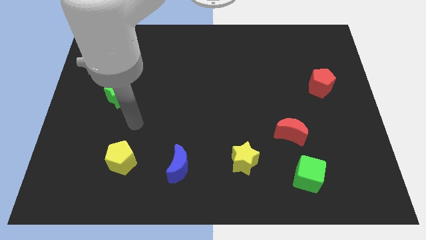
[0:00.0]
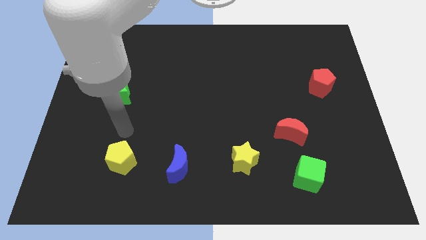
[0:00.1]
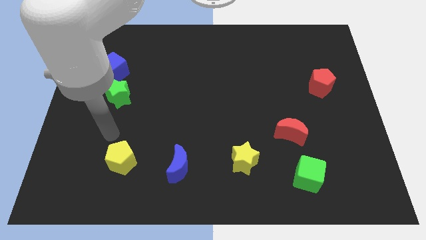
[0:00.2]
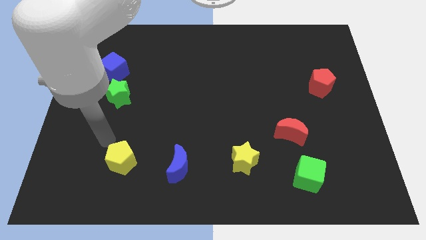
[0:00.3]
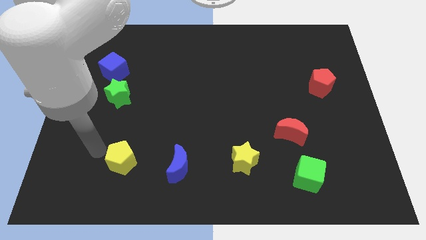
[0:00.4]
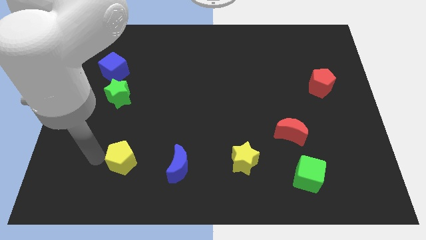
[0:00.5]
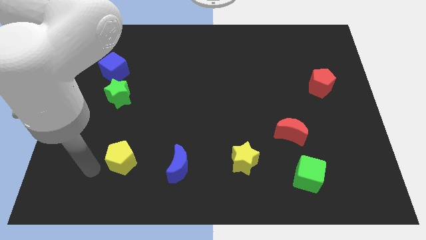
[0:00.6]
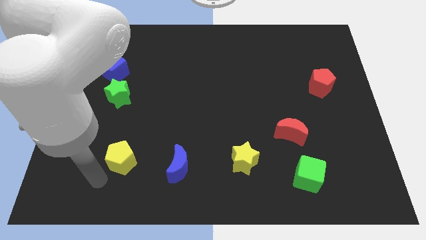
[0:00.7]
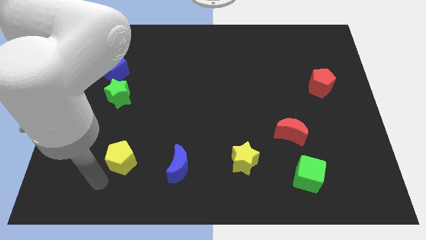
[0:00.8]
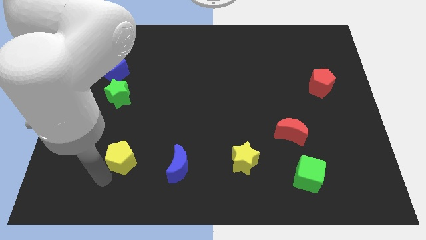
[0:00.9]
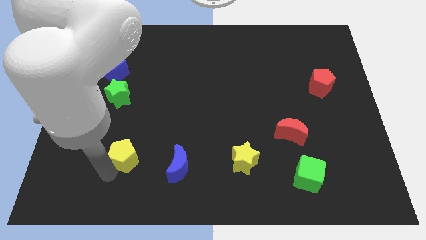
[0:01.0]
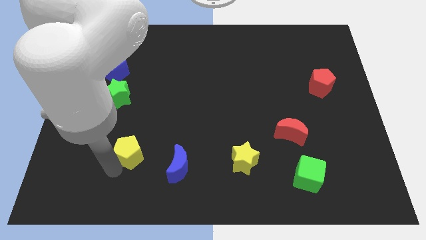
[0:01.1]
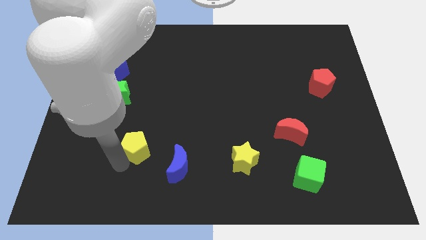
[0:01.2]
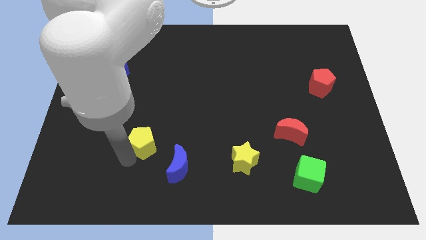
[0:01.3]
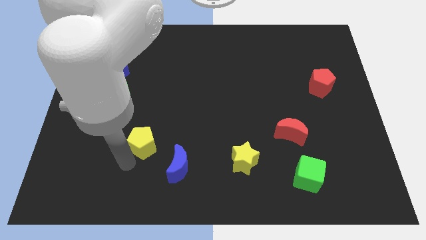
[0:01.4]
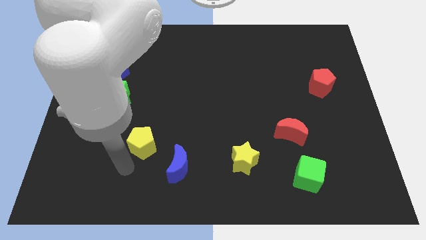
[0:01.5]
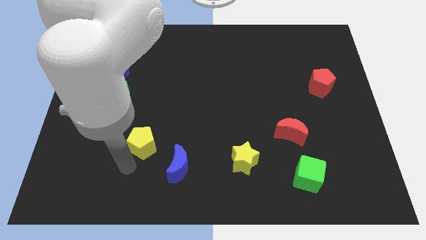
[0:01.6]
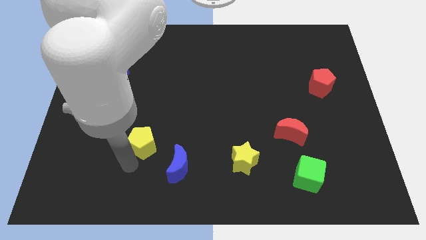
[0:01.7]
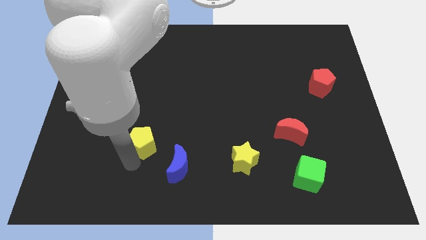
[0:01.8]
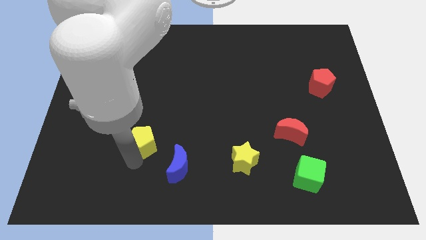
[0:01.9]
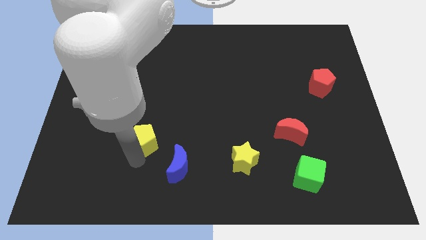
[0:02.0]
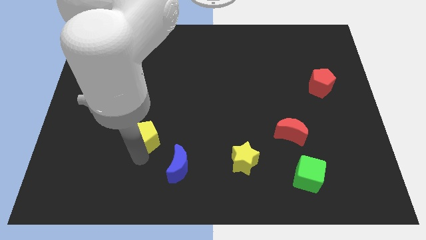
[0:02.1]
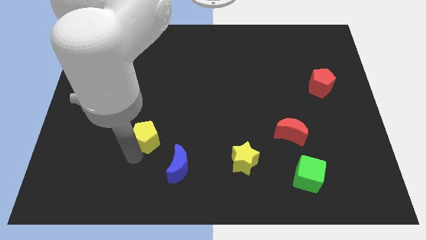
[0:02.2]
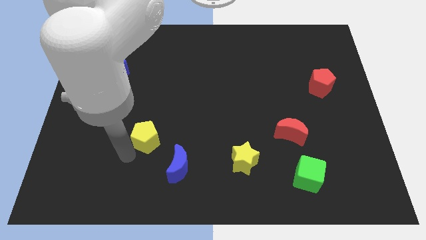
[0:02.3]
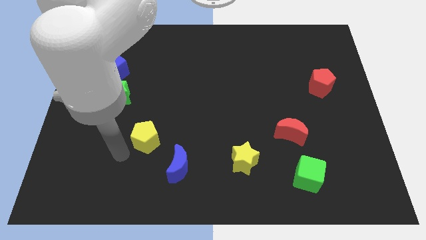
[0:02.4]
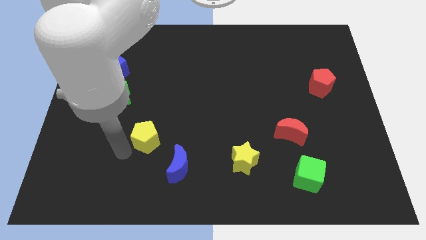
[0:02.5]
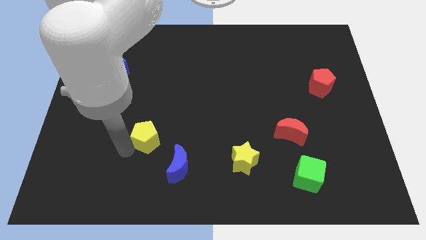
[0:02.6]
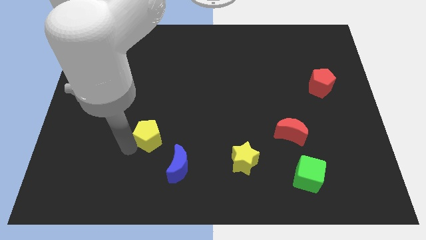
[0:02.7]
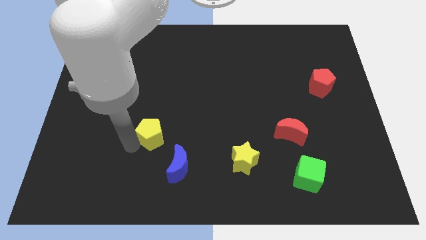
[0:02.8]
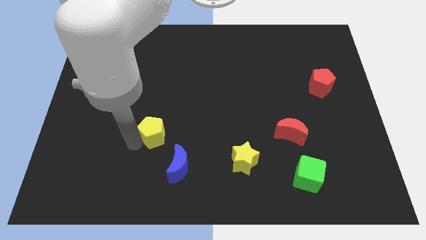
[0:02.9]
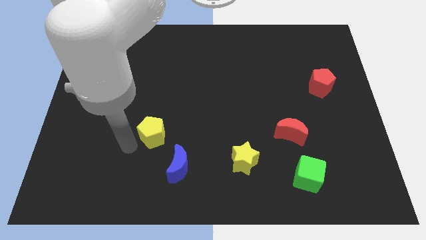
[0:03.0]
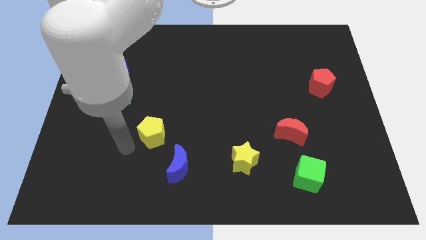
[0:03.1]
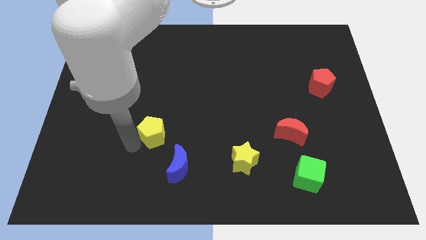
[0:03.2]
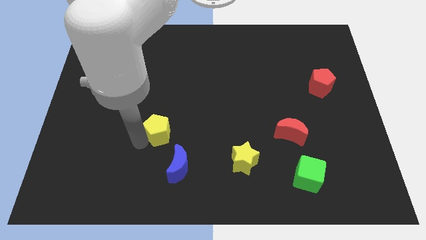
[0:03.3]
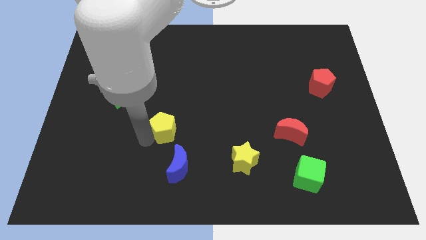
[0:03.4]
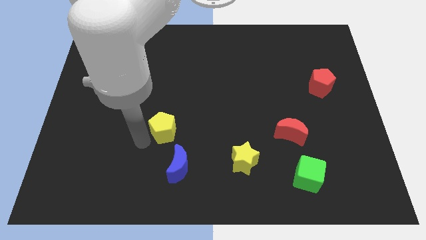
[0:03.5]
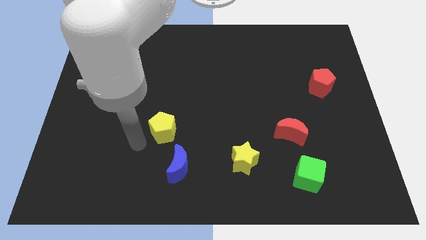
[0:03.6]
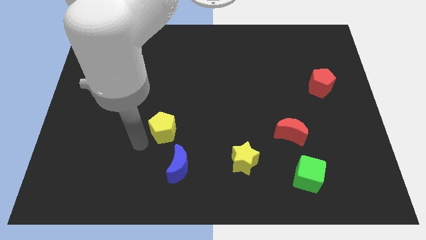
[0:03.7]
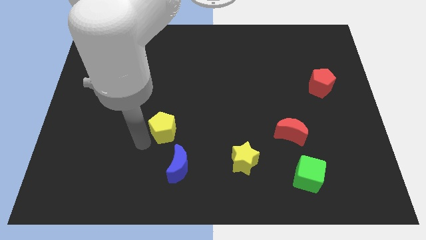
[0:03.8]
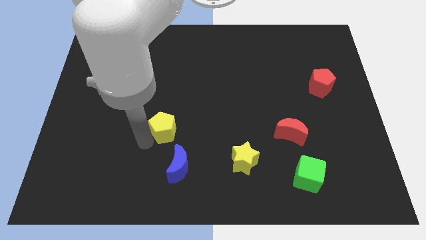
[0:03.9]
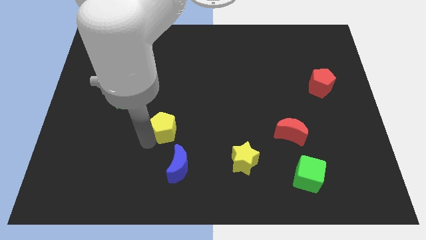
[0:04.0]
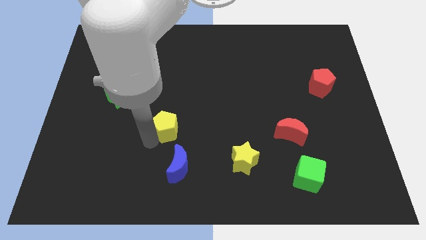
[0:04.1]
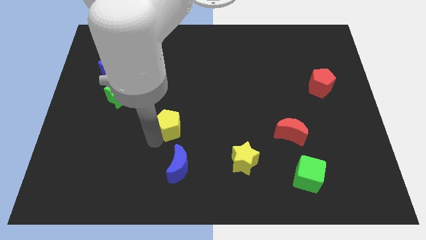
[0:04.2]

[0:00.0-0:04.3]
push the yellow pentagon to the center

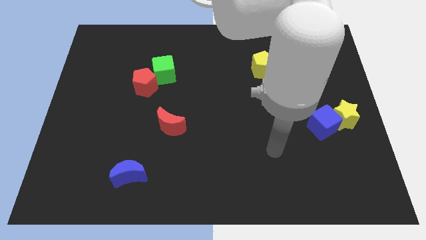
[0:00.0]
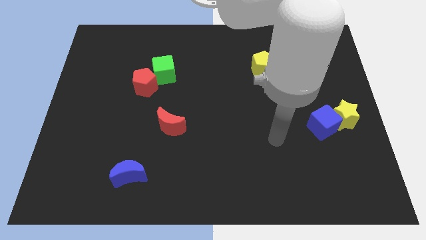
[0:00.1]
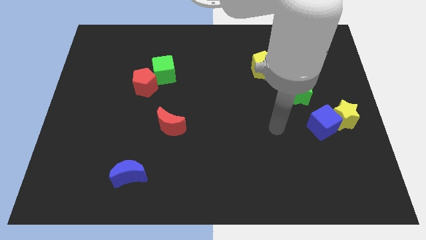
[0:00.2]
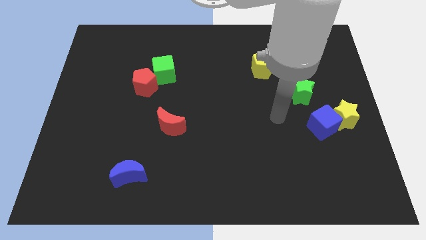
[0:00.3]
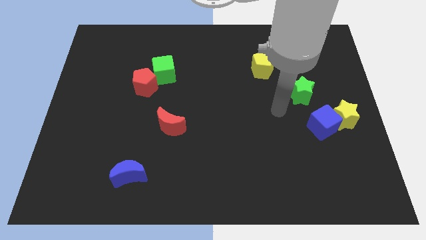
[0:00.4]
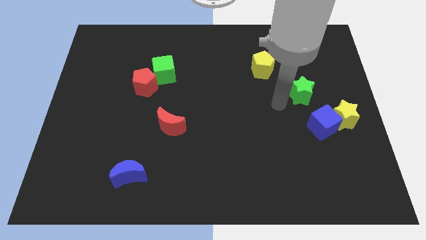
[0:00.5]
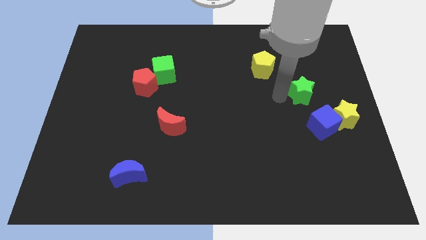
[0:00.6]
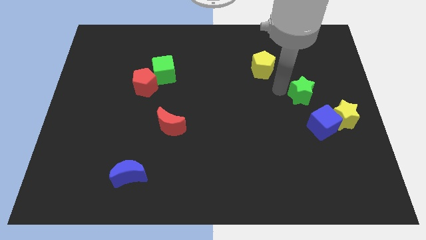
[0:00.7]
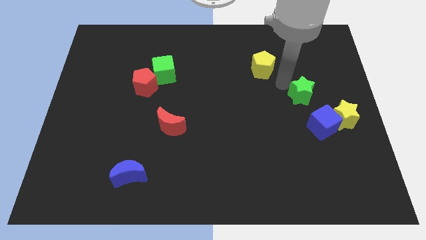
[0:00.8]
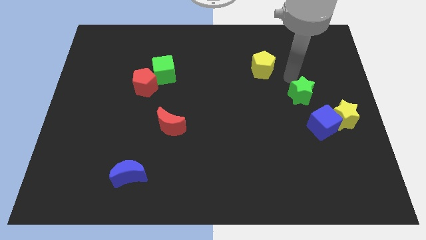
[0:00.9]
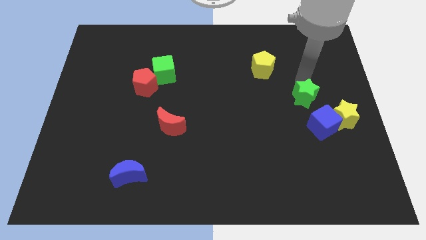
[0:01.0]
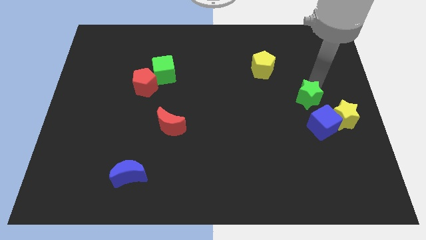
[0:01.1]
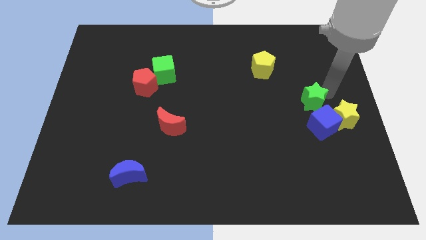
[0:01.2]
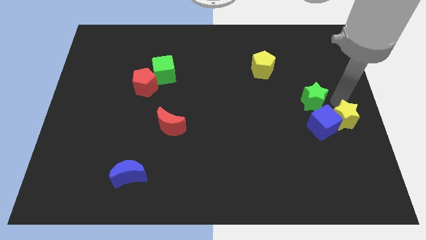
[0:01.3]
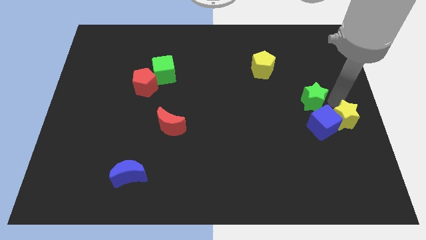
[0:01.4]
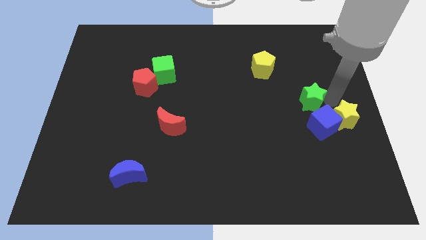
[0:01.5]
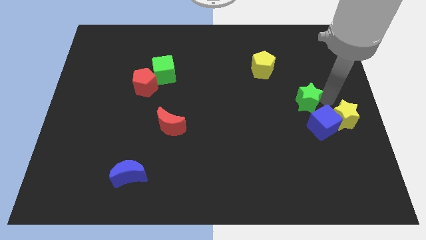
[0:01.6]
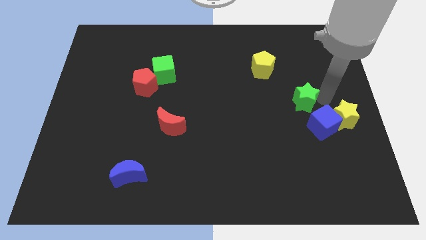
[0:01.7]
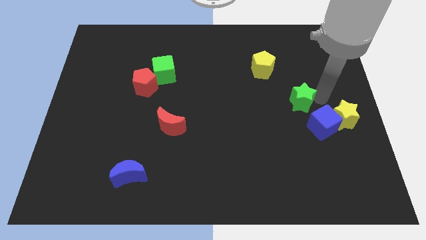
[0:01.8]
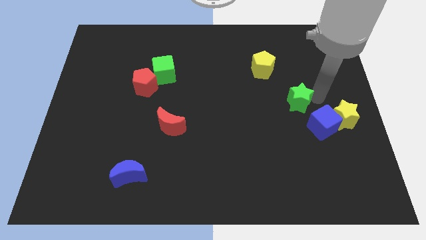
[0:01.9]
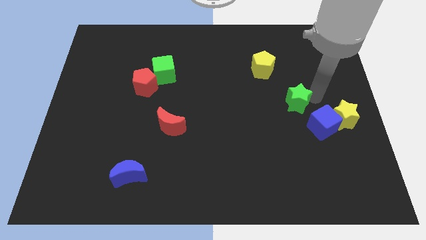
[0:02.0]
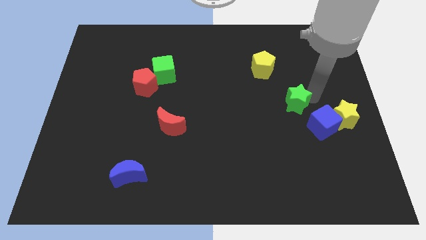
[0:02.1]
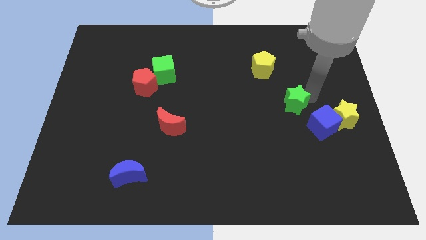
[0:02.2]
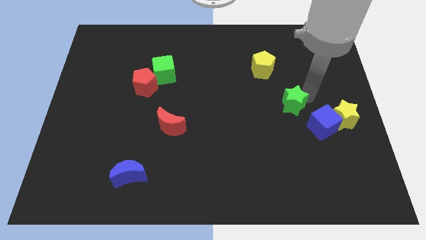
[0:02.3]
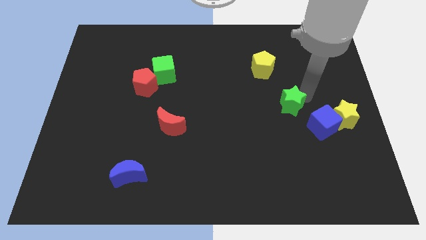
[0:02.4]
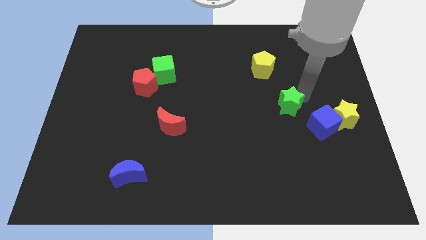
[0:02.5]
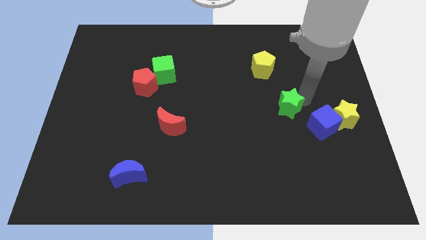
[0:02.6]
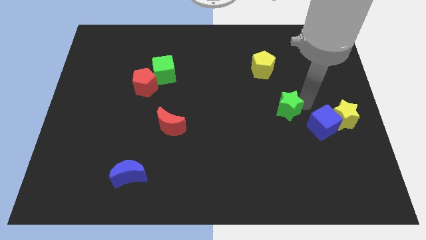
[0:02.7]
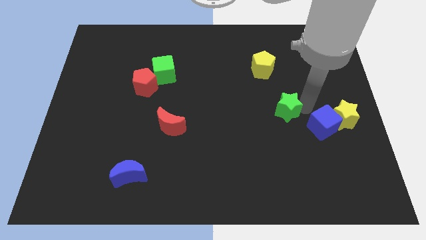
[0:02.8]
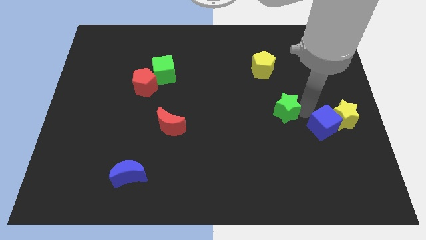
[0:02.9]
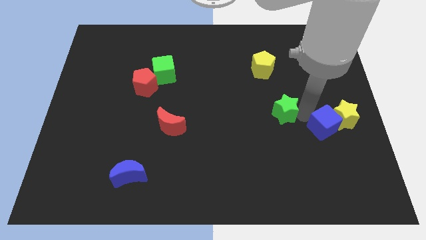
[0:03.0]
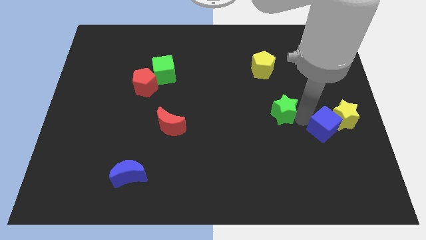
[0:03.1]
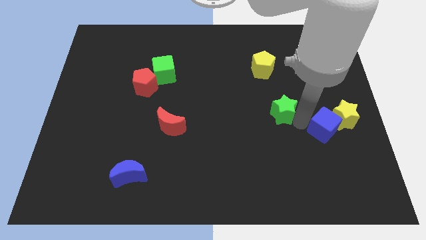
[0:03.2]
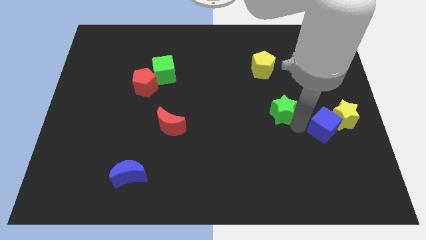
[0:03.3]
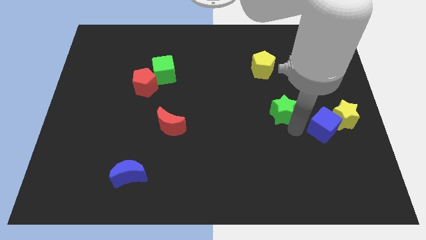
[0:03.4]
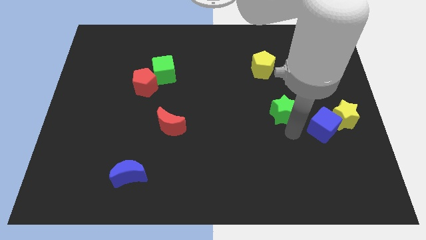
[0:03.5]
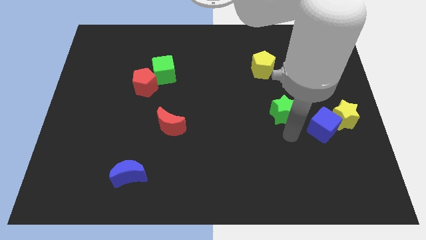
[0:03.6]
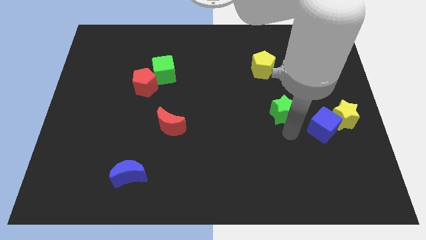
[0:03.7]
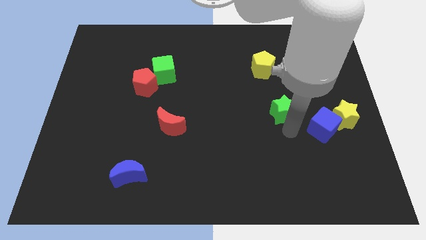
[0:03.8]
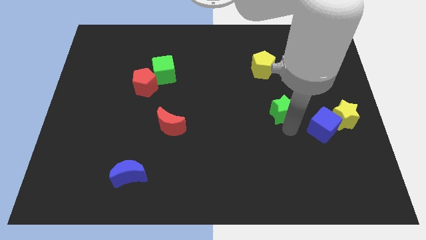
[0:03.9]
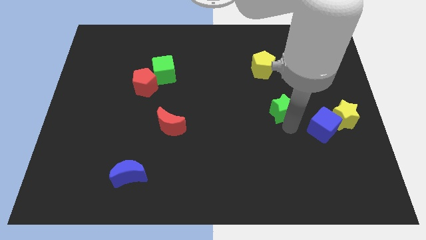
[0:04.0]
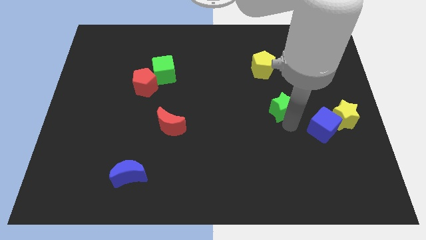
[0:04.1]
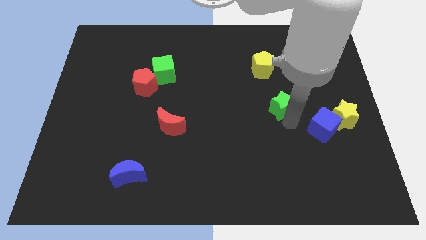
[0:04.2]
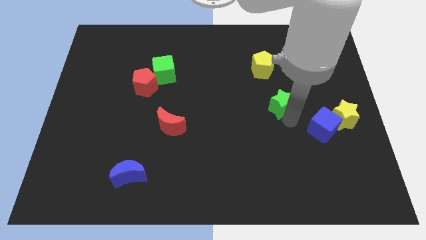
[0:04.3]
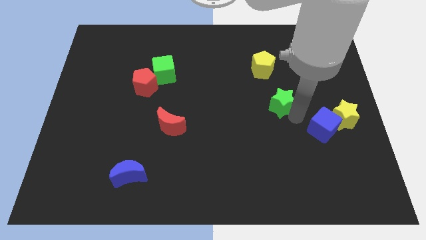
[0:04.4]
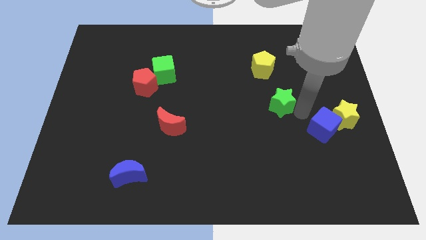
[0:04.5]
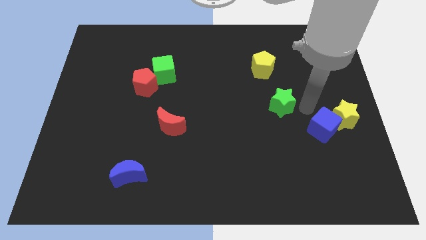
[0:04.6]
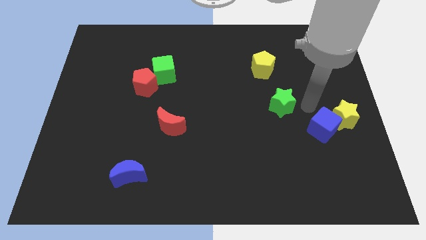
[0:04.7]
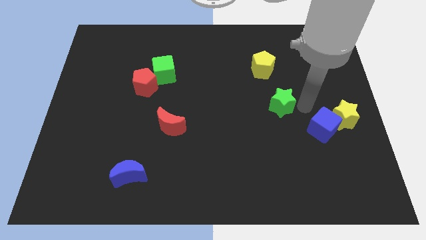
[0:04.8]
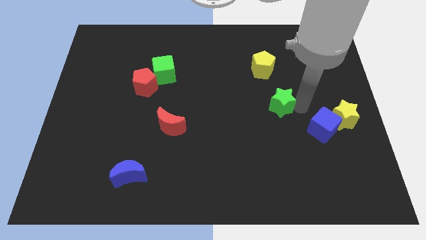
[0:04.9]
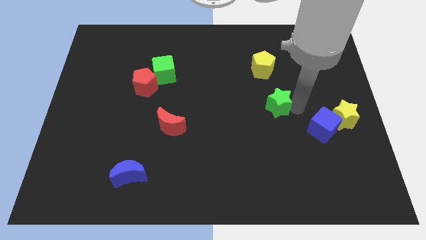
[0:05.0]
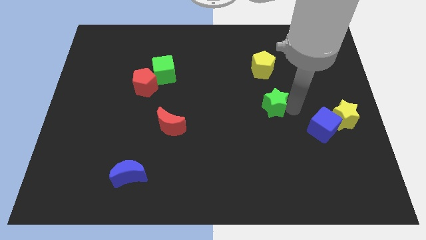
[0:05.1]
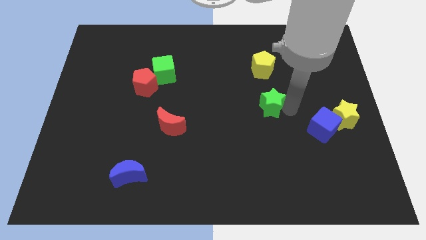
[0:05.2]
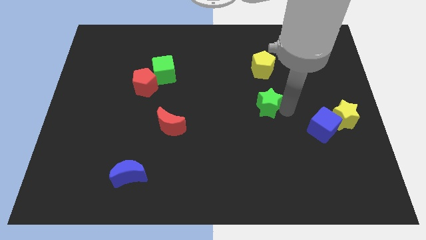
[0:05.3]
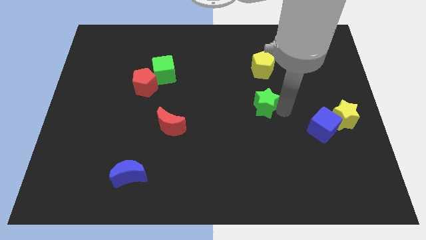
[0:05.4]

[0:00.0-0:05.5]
push the green star to the center
